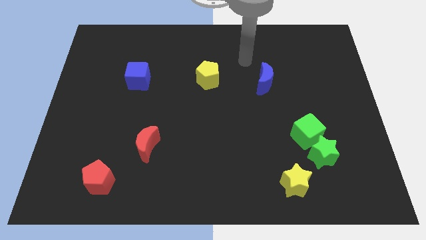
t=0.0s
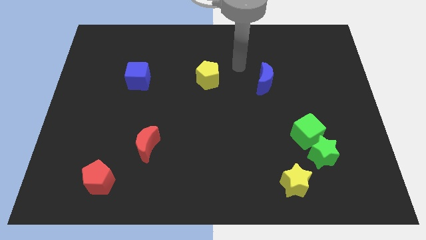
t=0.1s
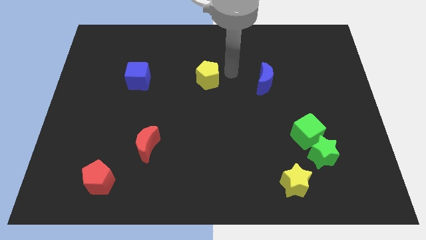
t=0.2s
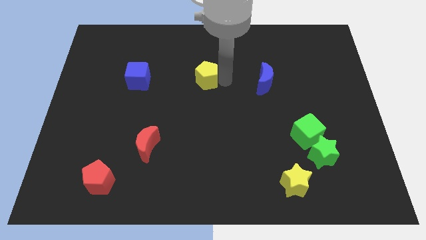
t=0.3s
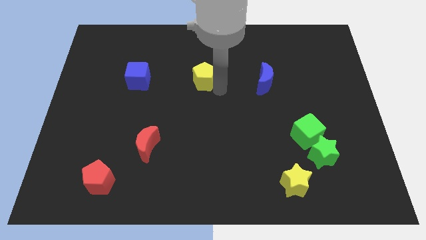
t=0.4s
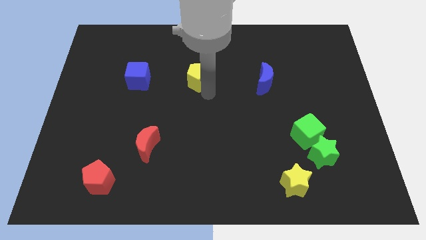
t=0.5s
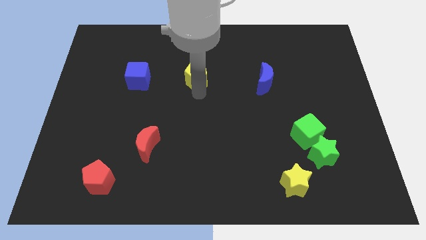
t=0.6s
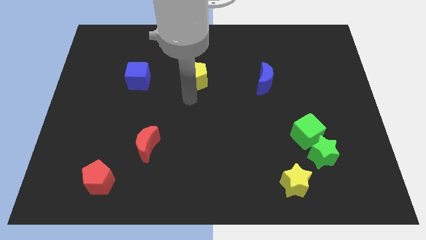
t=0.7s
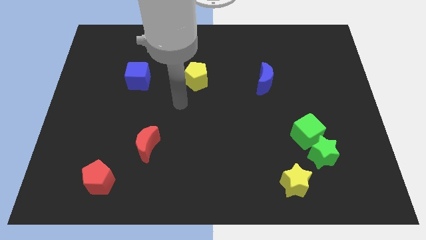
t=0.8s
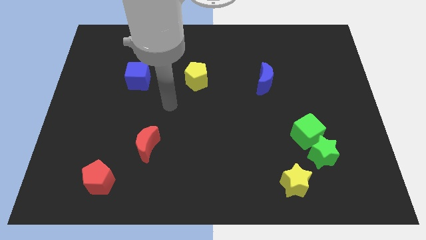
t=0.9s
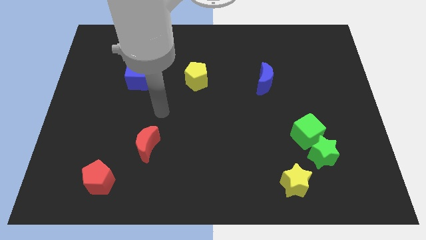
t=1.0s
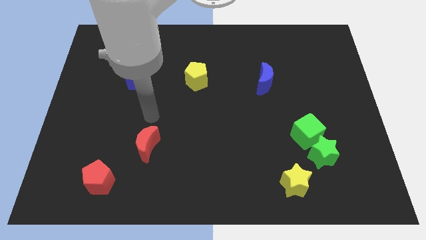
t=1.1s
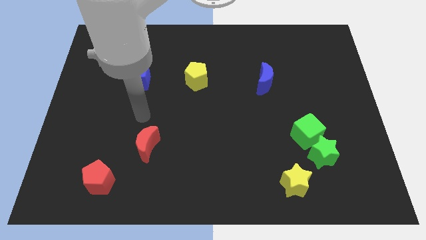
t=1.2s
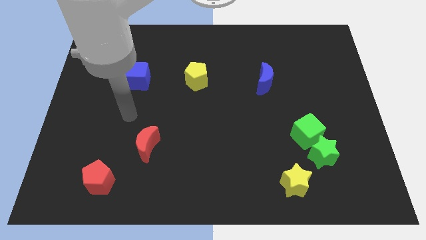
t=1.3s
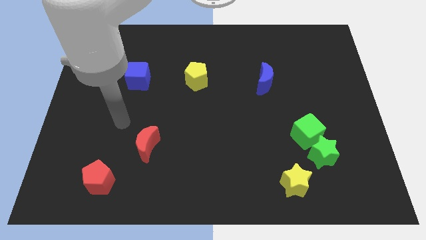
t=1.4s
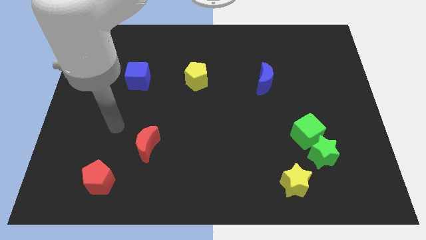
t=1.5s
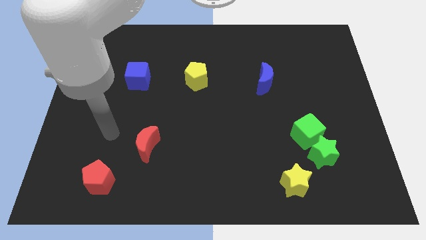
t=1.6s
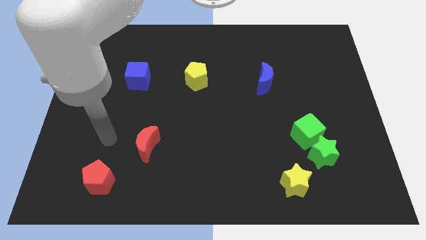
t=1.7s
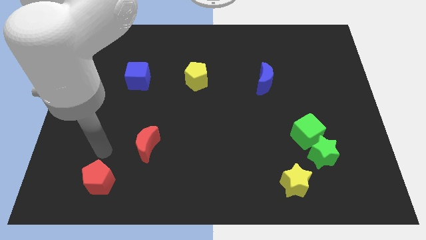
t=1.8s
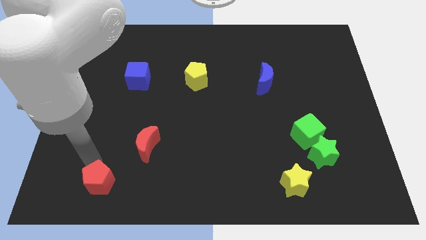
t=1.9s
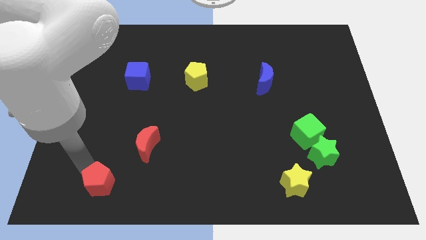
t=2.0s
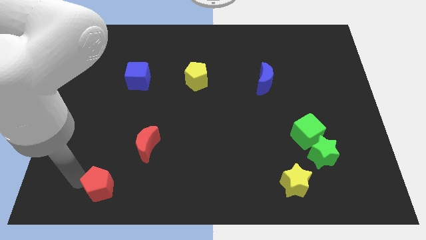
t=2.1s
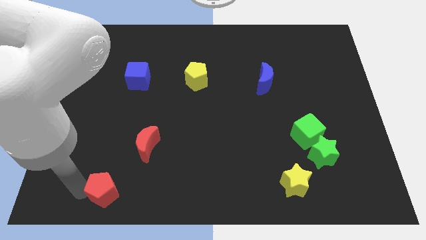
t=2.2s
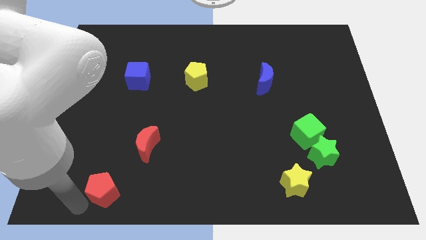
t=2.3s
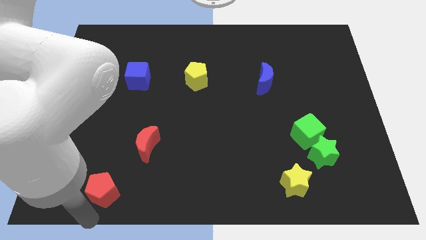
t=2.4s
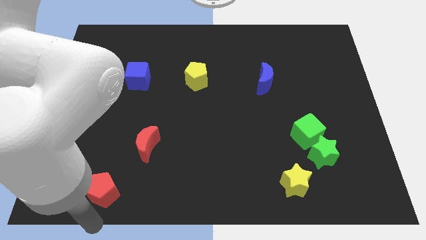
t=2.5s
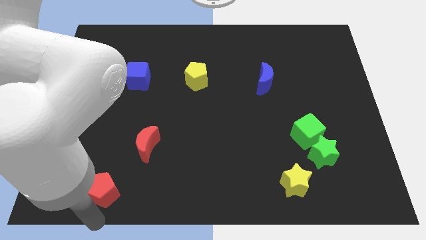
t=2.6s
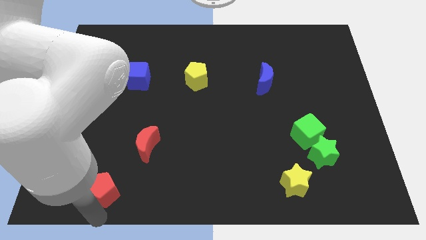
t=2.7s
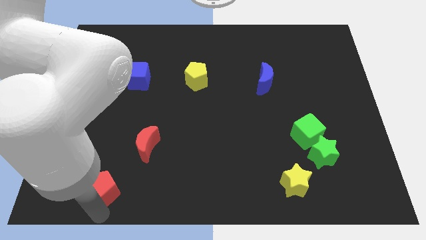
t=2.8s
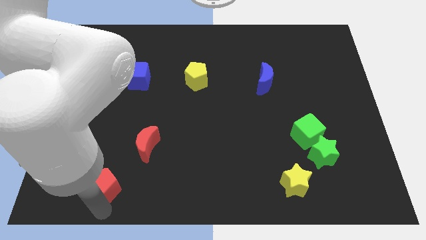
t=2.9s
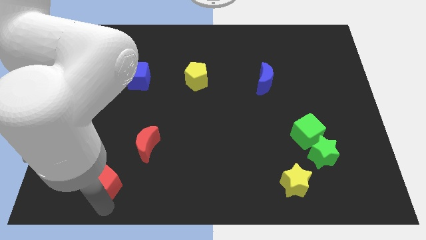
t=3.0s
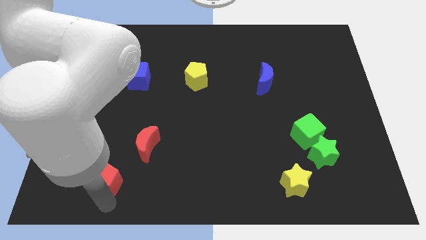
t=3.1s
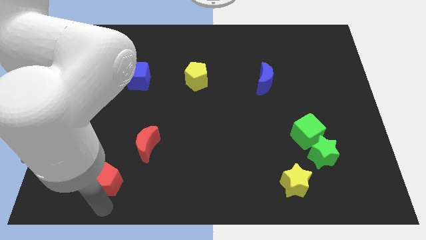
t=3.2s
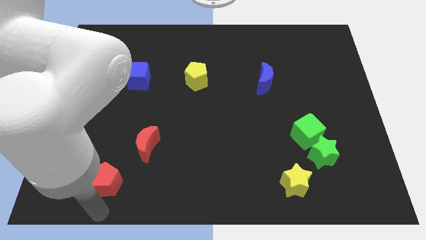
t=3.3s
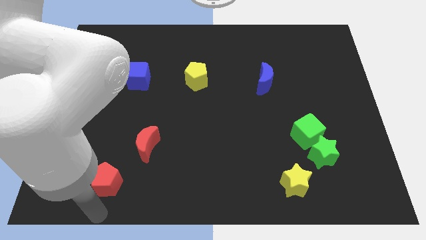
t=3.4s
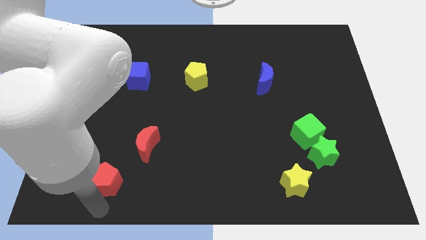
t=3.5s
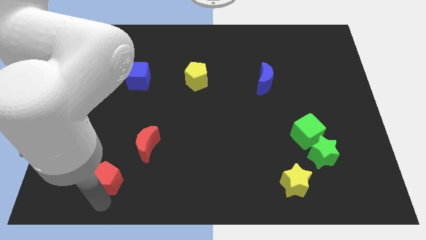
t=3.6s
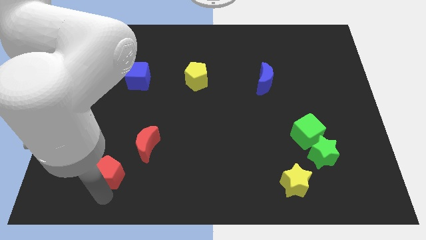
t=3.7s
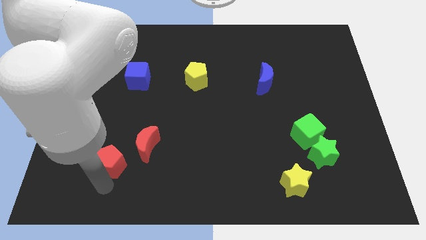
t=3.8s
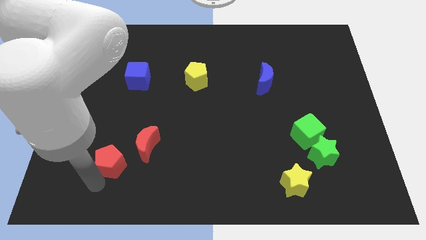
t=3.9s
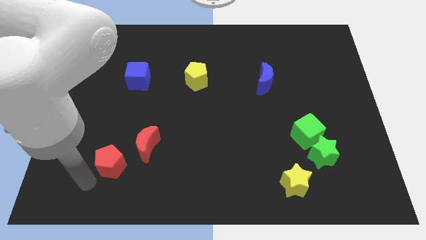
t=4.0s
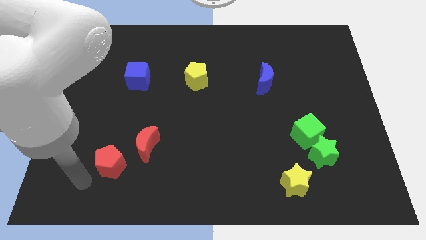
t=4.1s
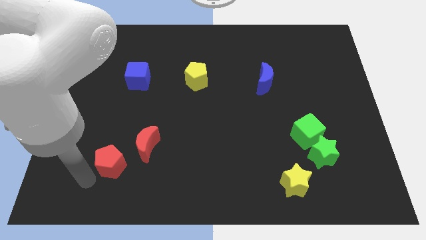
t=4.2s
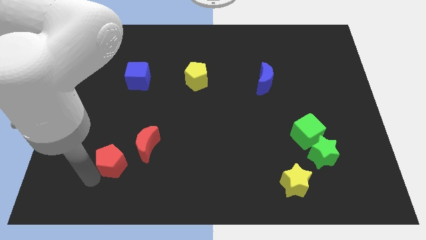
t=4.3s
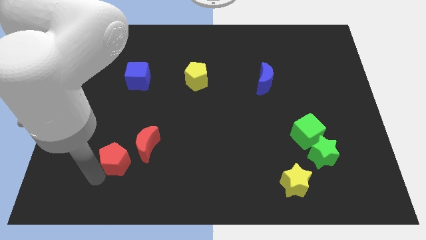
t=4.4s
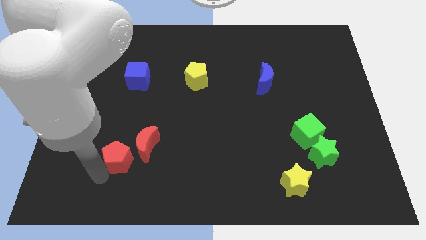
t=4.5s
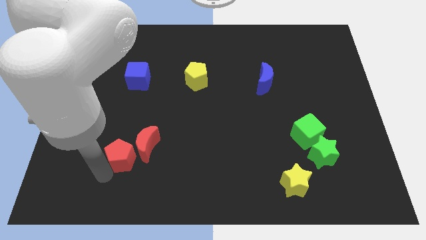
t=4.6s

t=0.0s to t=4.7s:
move the red pentagon towards the red moon

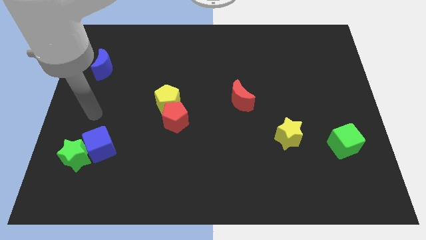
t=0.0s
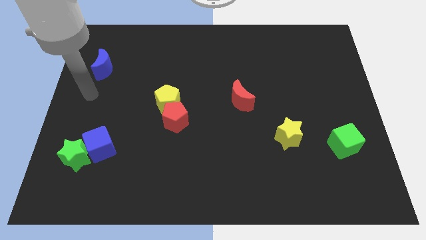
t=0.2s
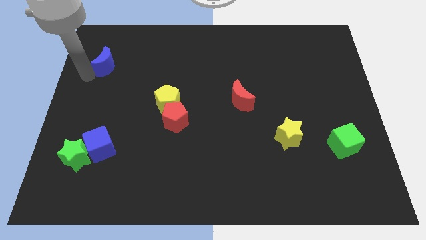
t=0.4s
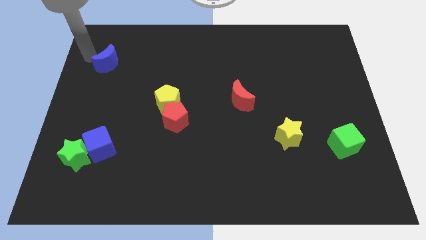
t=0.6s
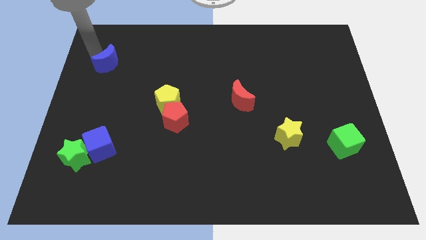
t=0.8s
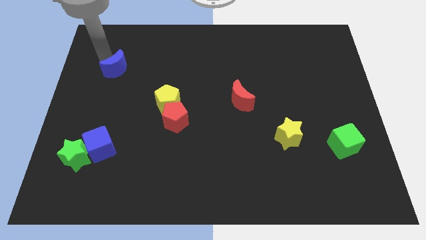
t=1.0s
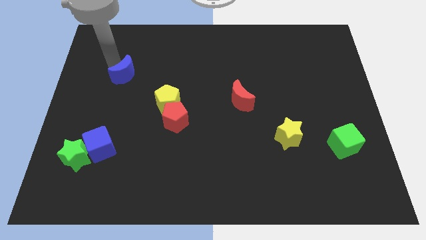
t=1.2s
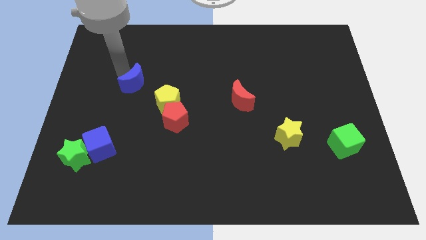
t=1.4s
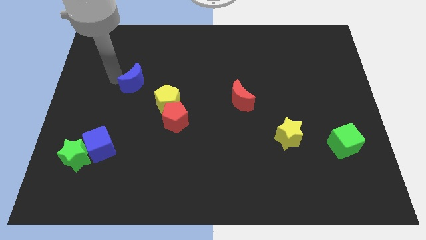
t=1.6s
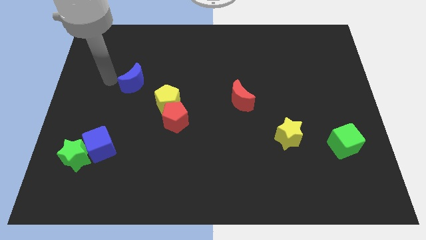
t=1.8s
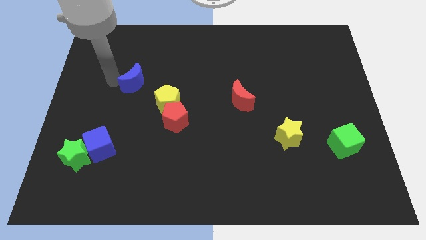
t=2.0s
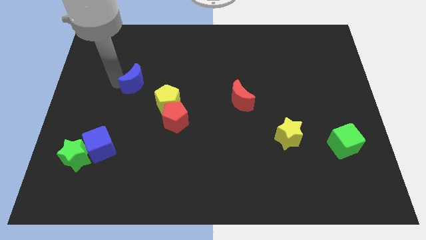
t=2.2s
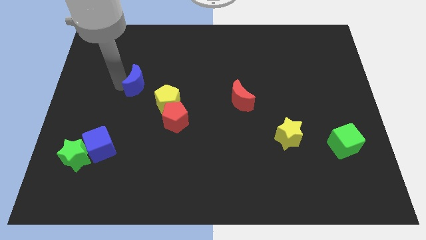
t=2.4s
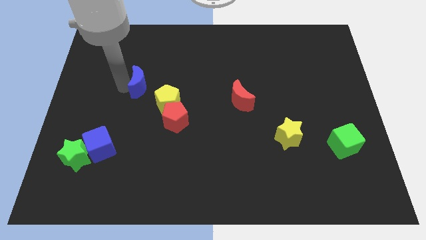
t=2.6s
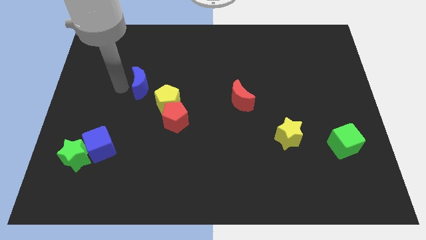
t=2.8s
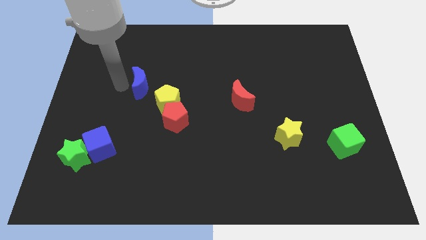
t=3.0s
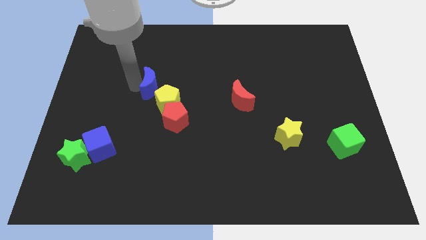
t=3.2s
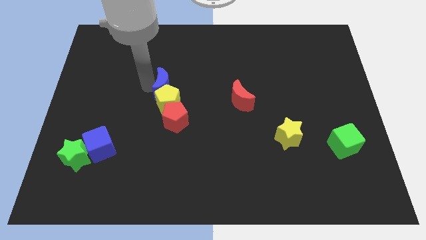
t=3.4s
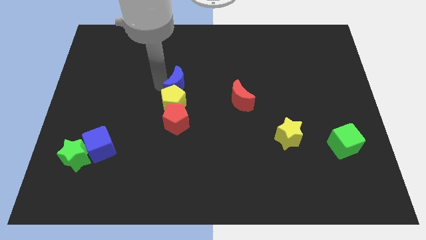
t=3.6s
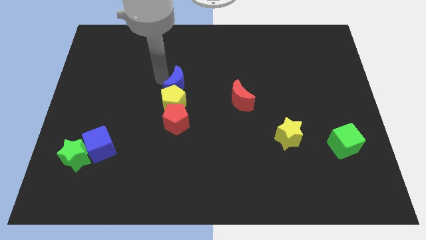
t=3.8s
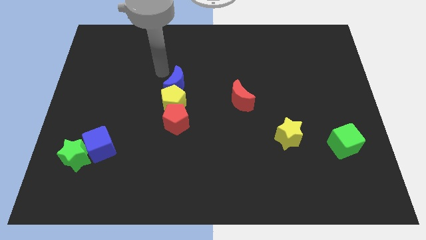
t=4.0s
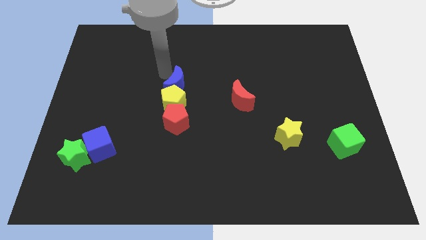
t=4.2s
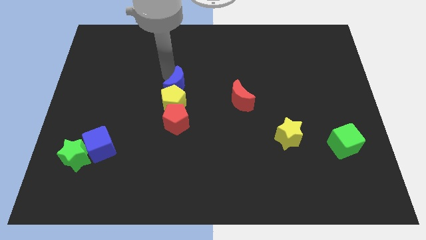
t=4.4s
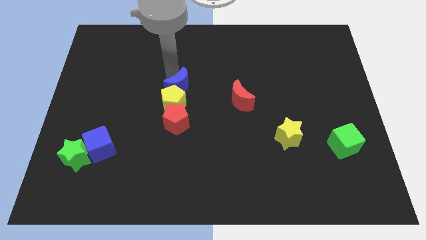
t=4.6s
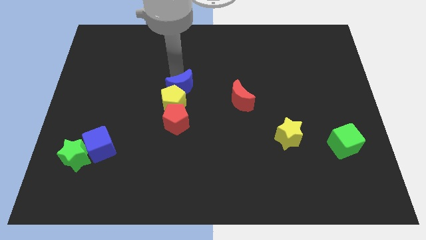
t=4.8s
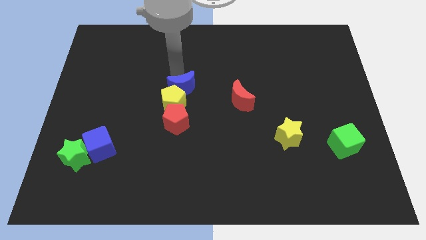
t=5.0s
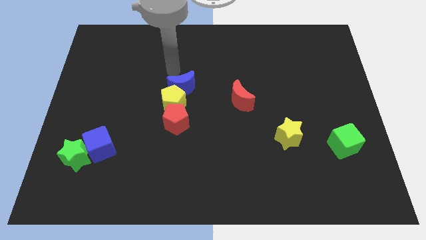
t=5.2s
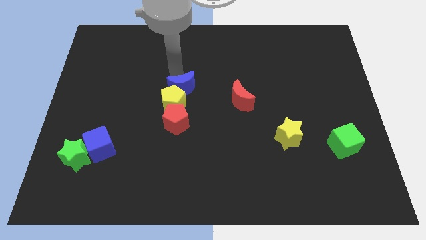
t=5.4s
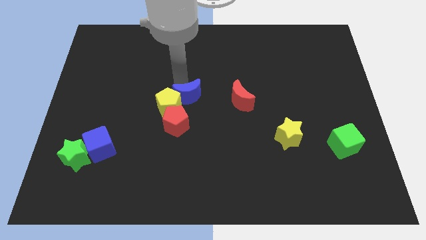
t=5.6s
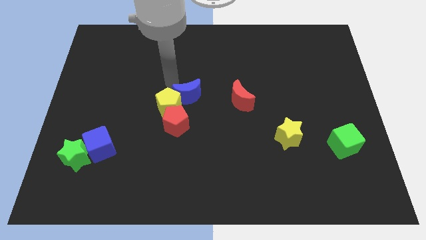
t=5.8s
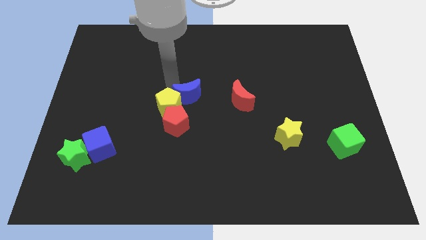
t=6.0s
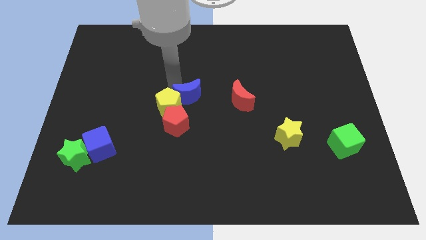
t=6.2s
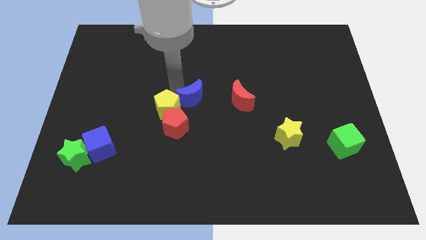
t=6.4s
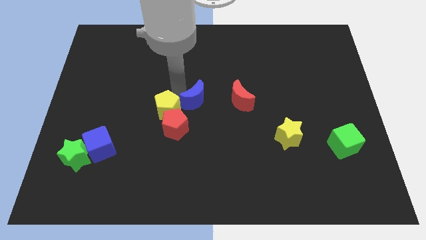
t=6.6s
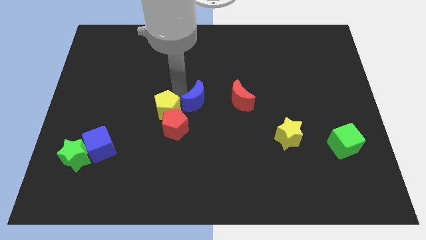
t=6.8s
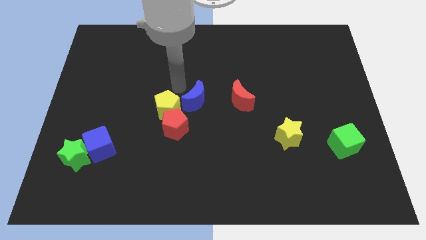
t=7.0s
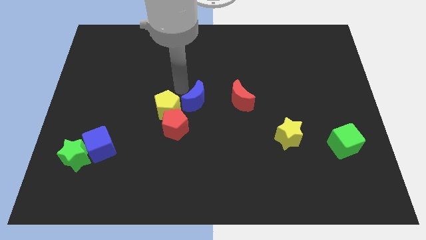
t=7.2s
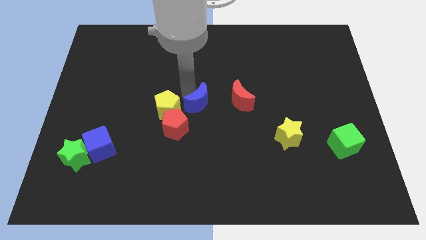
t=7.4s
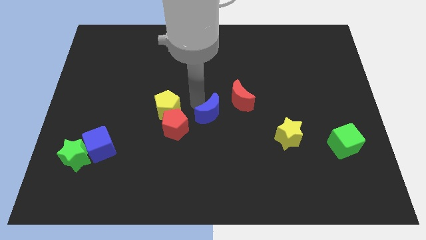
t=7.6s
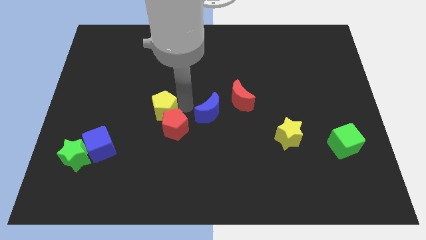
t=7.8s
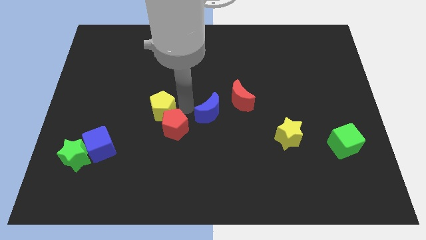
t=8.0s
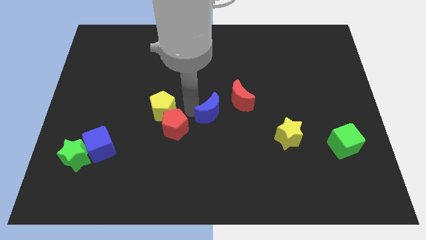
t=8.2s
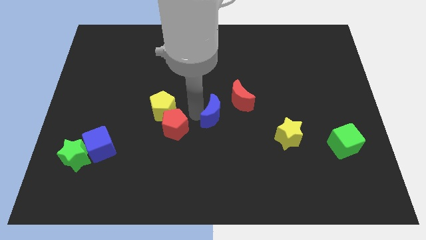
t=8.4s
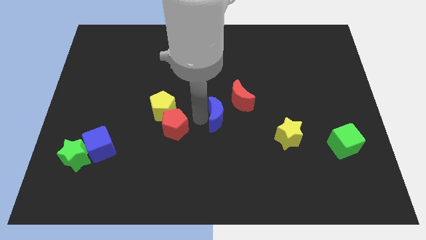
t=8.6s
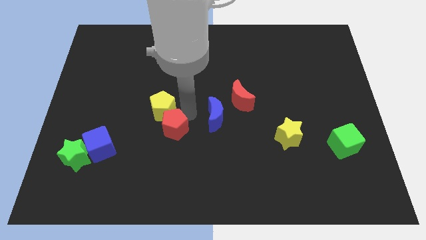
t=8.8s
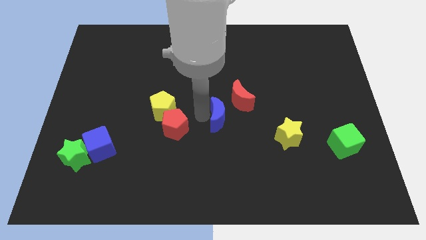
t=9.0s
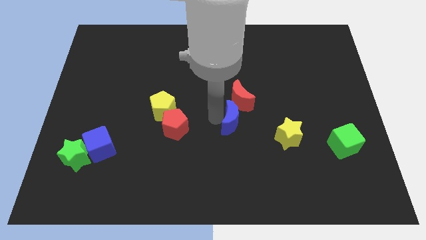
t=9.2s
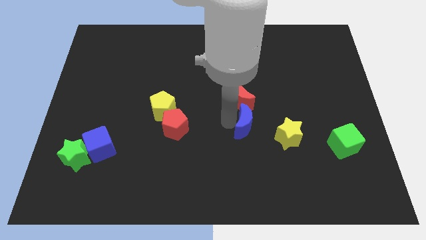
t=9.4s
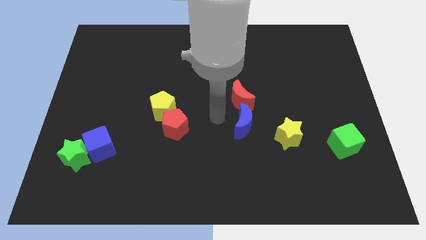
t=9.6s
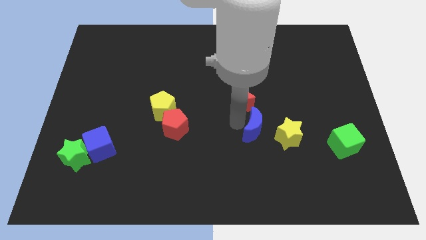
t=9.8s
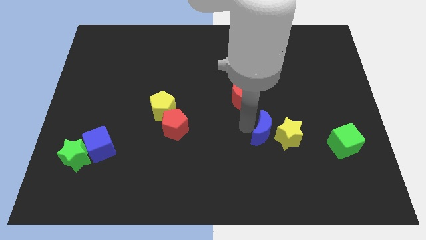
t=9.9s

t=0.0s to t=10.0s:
move the blue moon next to the yellow star
